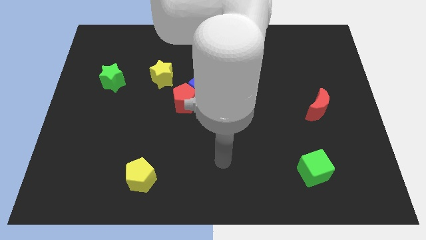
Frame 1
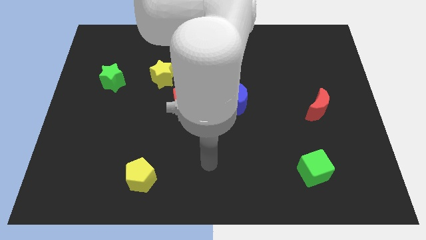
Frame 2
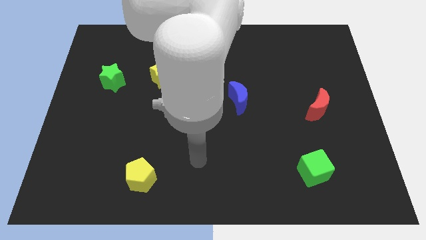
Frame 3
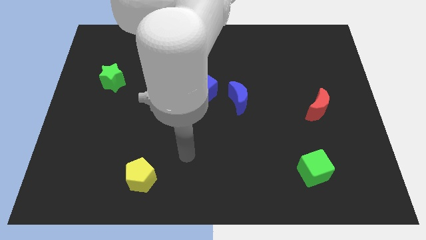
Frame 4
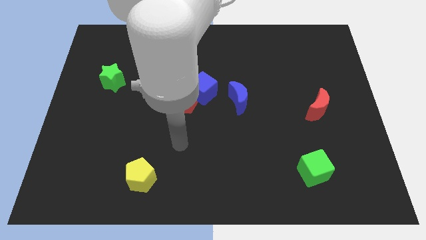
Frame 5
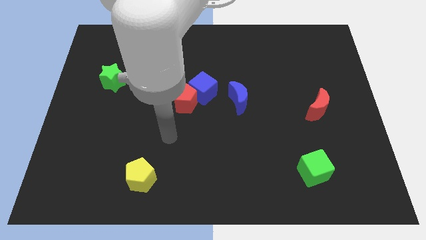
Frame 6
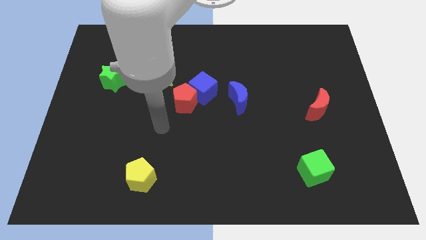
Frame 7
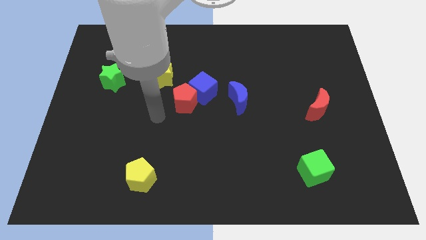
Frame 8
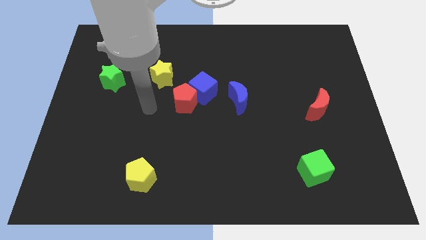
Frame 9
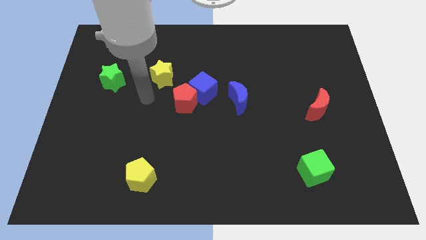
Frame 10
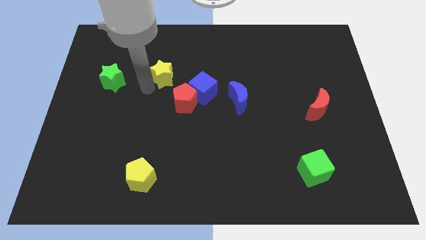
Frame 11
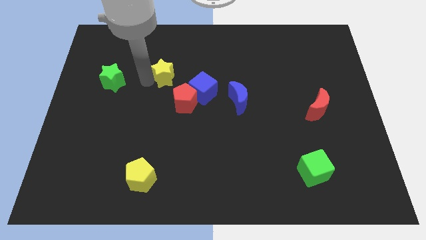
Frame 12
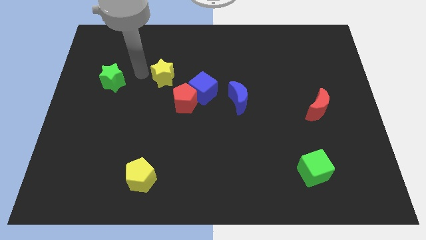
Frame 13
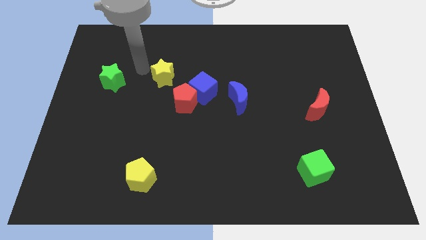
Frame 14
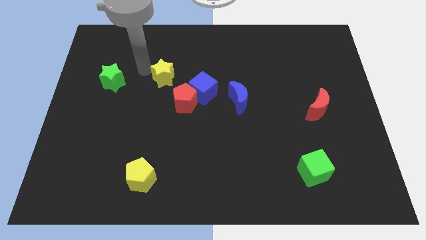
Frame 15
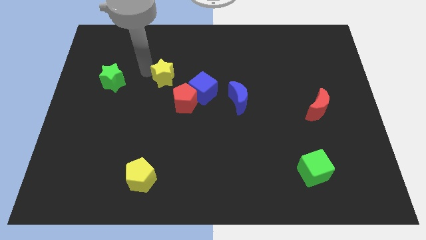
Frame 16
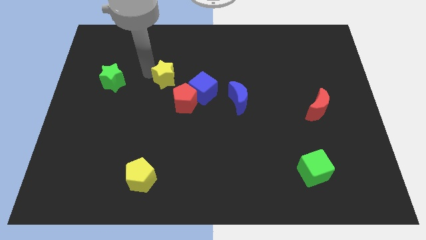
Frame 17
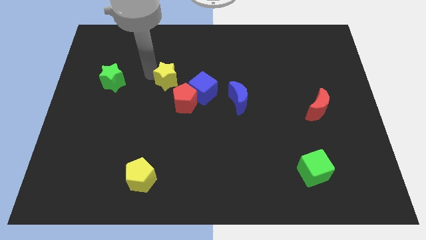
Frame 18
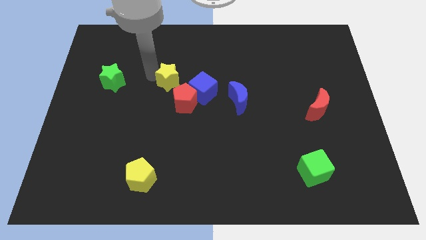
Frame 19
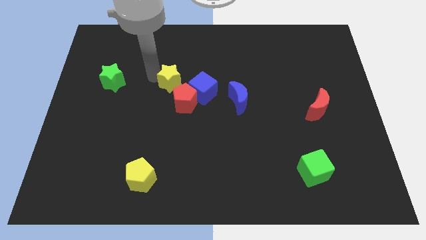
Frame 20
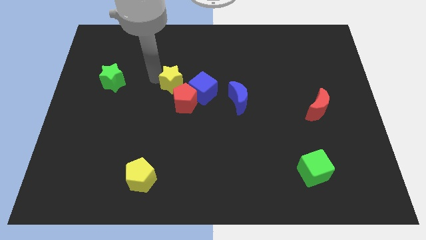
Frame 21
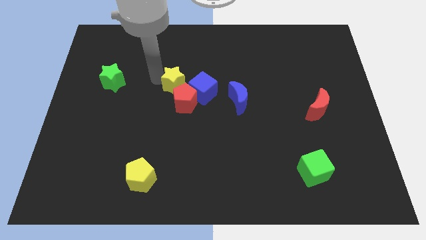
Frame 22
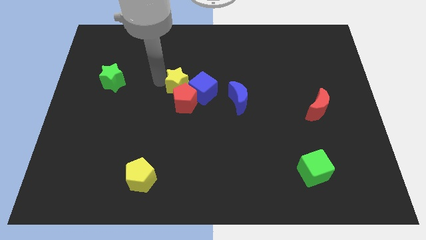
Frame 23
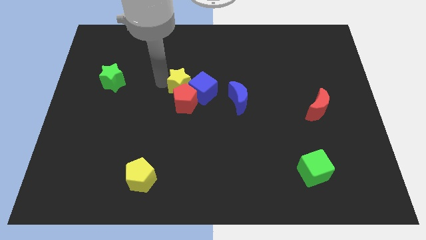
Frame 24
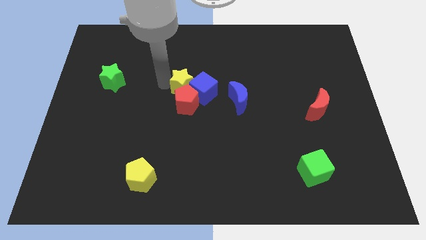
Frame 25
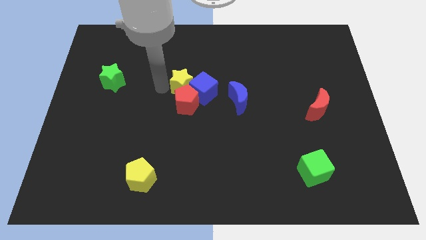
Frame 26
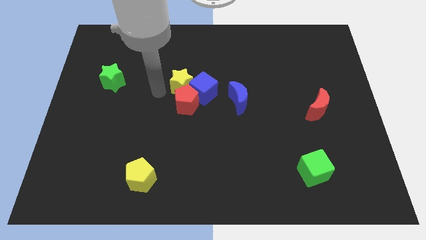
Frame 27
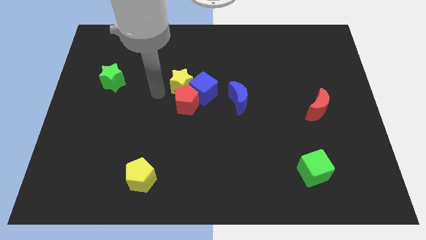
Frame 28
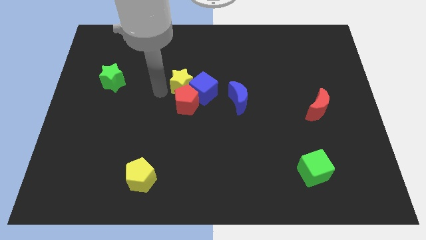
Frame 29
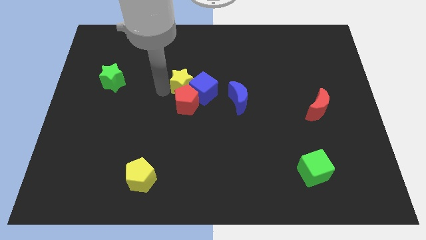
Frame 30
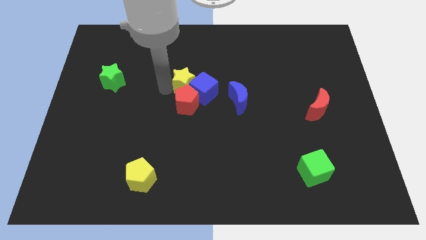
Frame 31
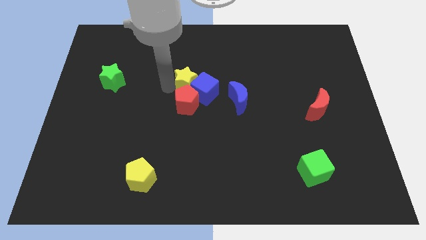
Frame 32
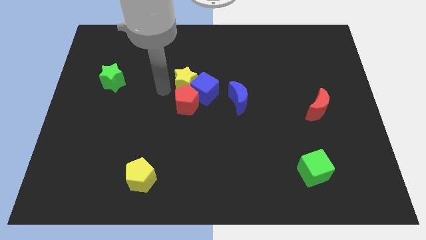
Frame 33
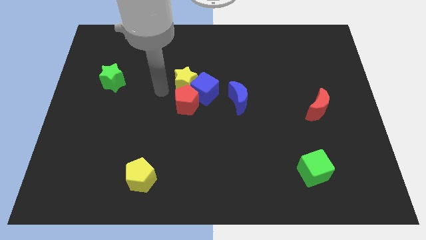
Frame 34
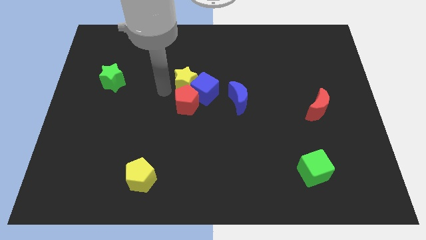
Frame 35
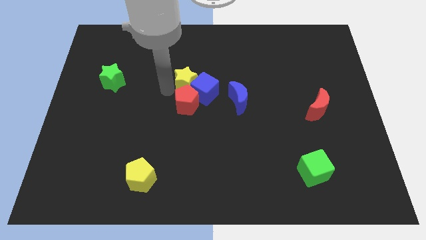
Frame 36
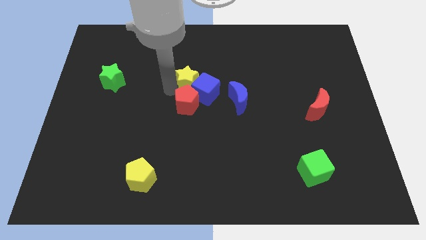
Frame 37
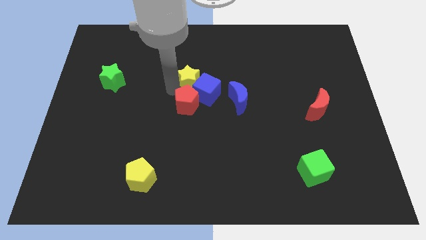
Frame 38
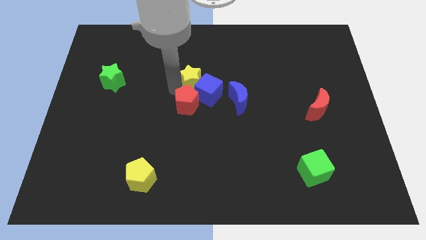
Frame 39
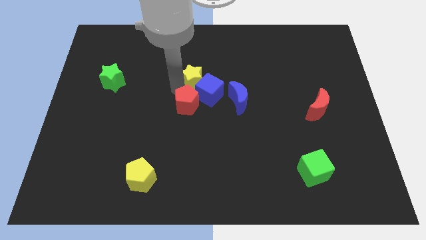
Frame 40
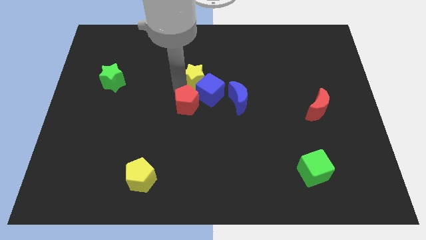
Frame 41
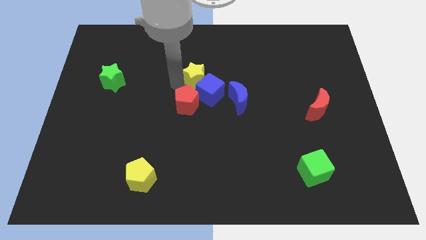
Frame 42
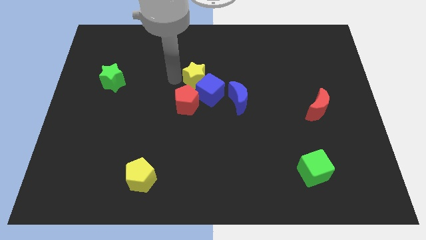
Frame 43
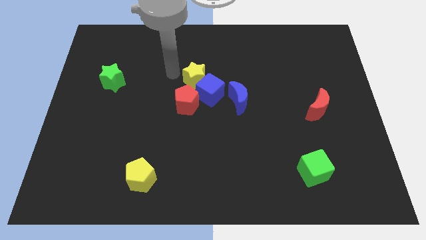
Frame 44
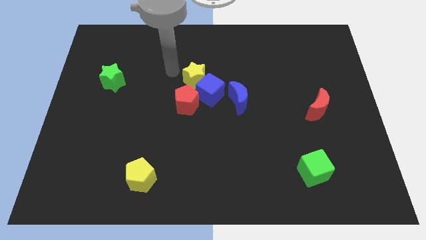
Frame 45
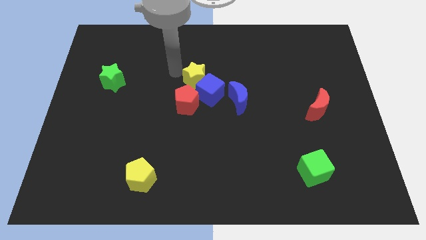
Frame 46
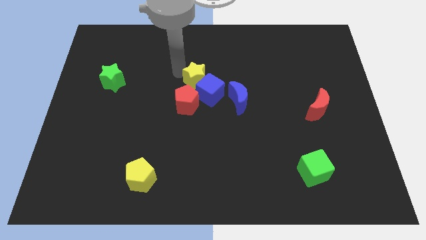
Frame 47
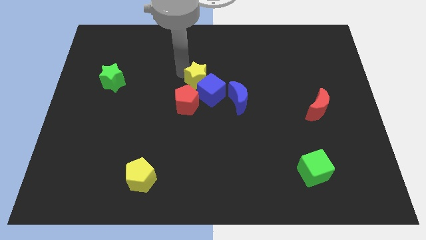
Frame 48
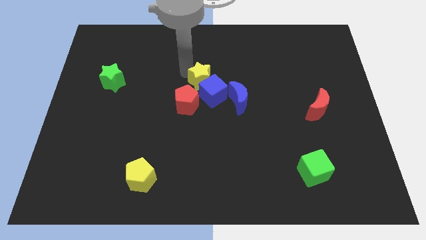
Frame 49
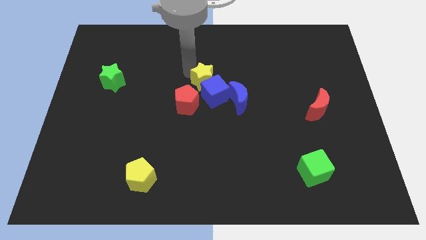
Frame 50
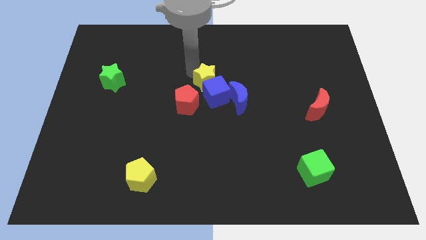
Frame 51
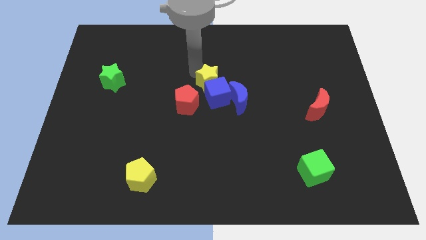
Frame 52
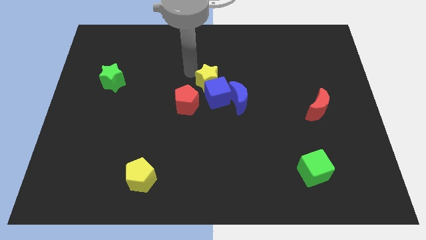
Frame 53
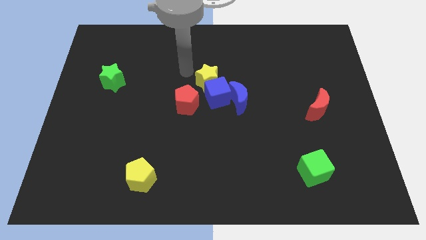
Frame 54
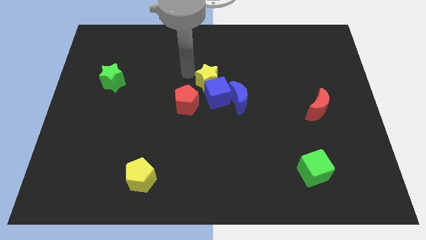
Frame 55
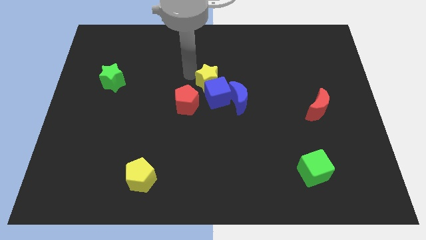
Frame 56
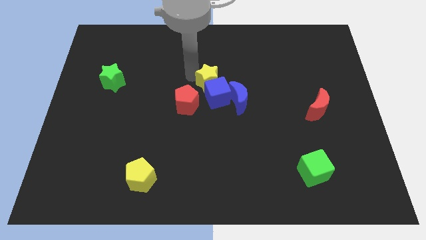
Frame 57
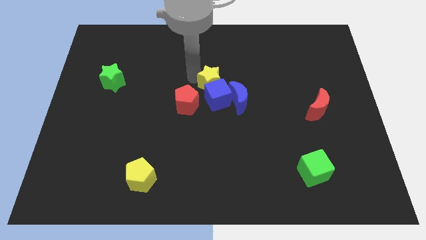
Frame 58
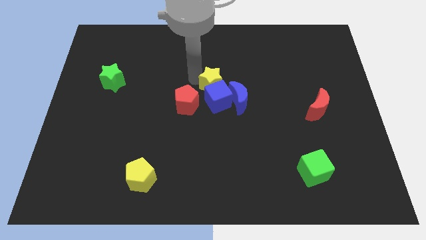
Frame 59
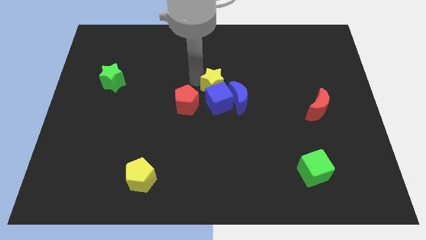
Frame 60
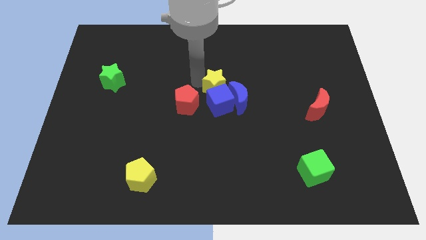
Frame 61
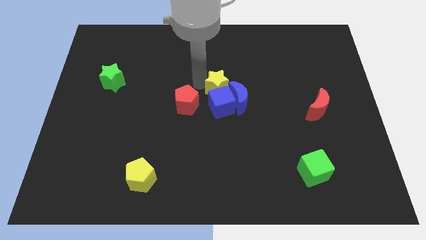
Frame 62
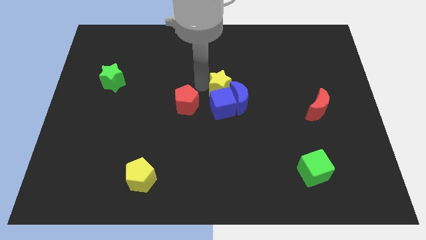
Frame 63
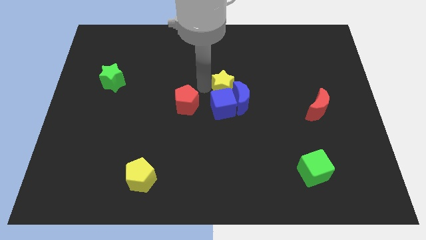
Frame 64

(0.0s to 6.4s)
put the yellow star towards the blue moon
